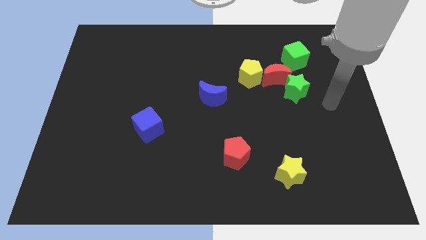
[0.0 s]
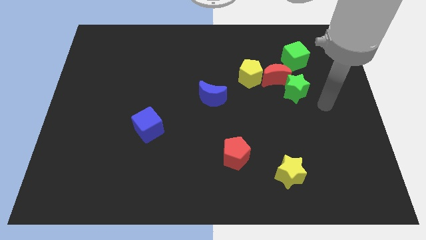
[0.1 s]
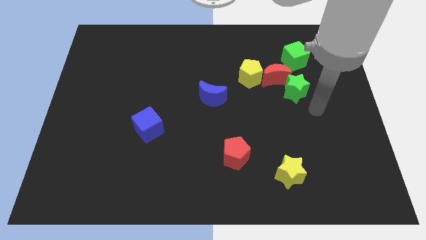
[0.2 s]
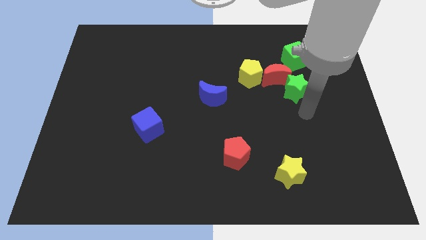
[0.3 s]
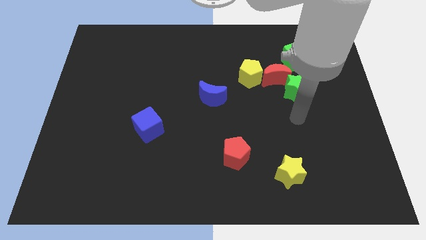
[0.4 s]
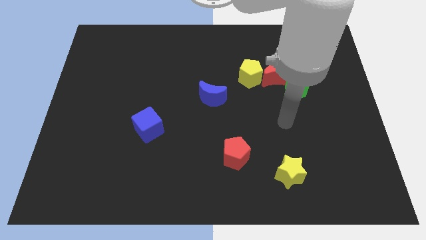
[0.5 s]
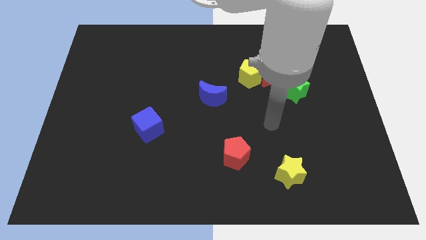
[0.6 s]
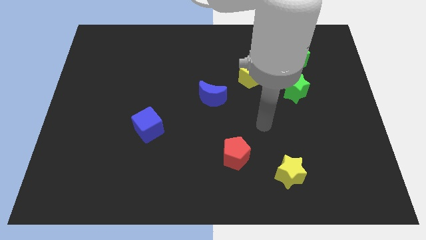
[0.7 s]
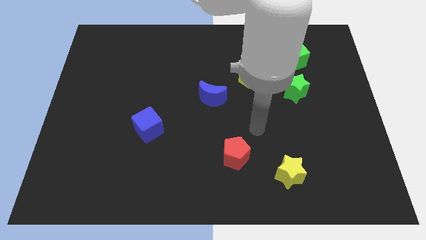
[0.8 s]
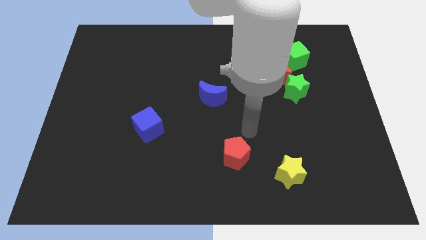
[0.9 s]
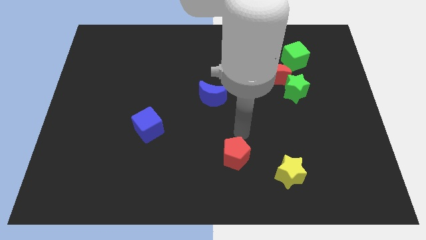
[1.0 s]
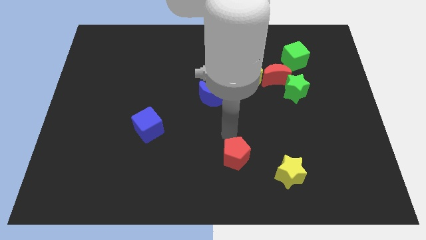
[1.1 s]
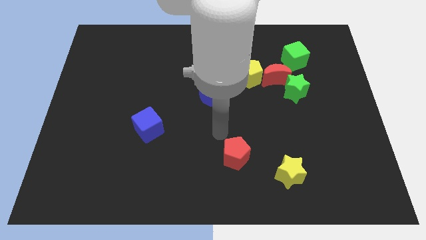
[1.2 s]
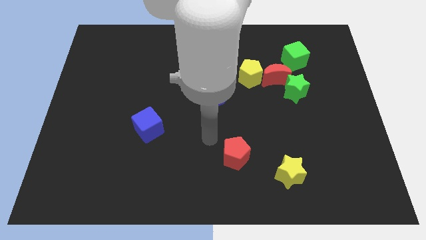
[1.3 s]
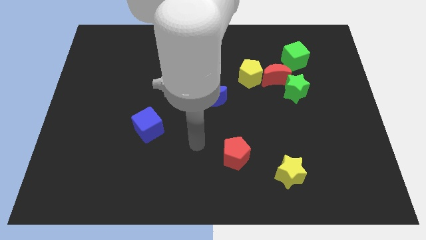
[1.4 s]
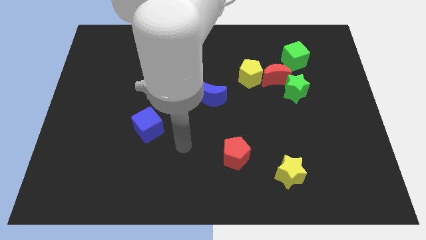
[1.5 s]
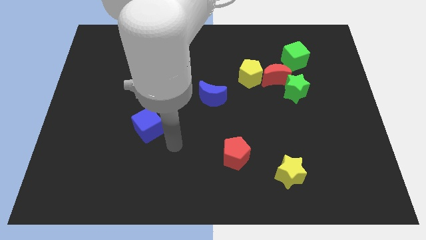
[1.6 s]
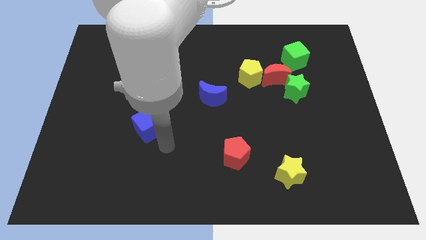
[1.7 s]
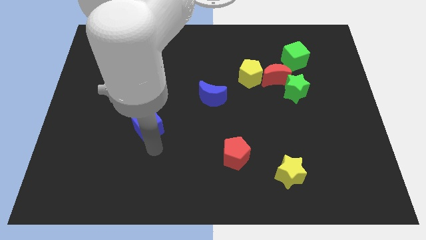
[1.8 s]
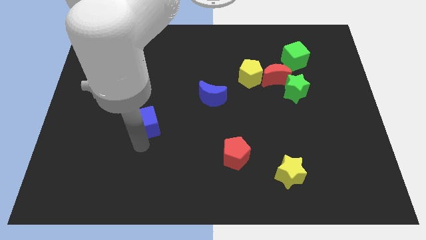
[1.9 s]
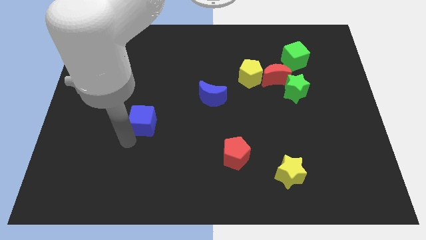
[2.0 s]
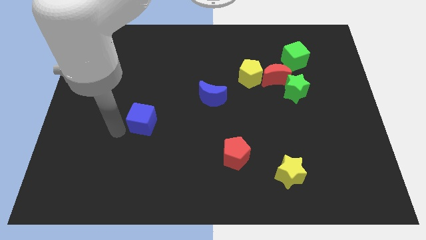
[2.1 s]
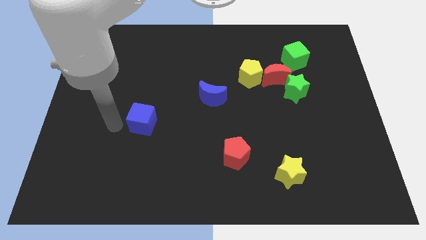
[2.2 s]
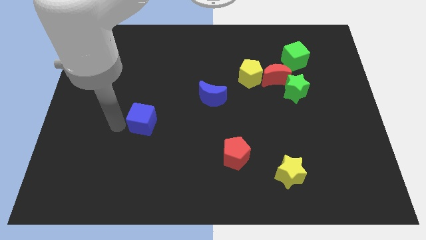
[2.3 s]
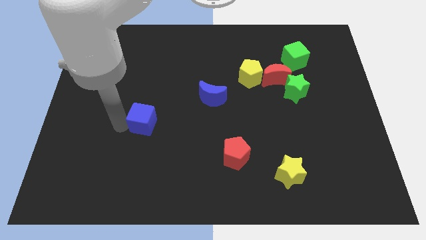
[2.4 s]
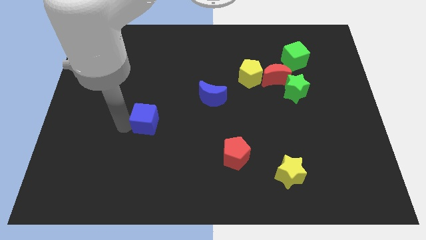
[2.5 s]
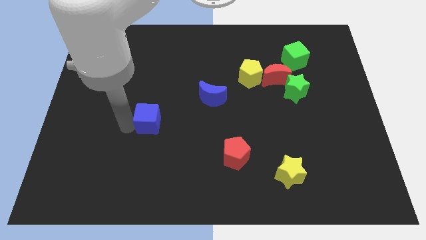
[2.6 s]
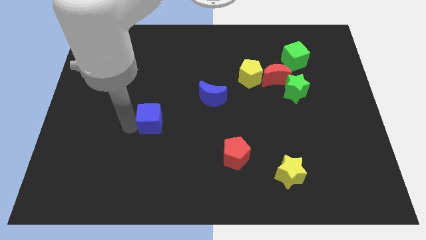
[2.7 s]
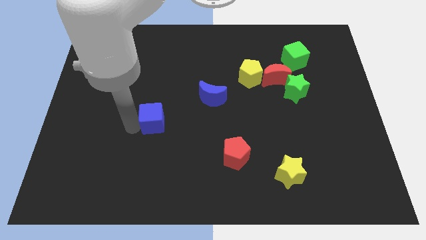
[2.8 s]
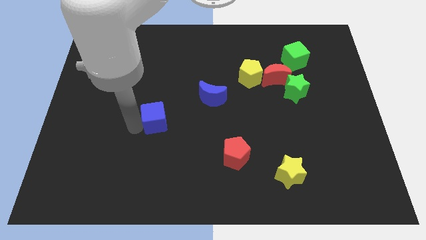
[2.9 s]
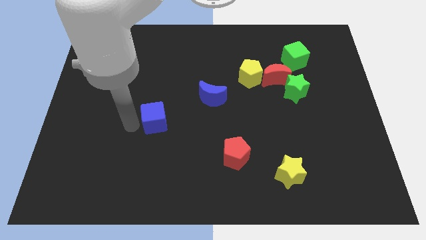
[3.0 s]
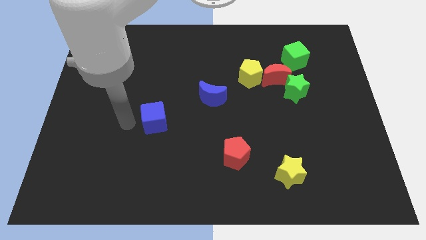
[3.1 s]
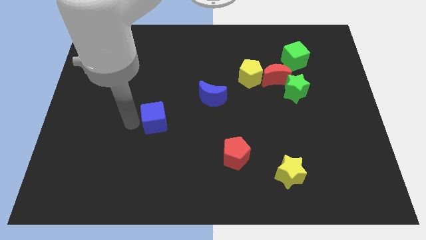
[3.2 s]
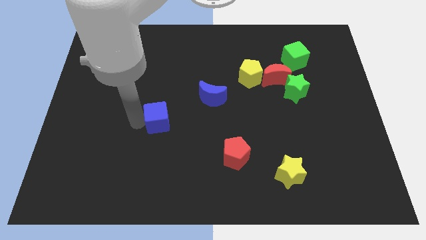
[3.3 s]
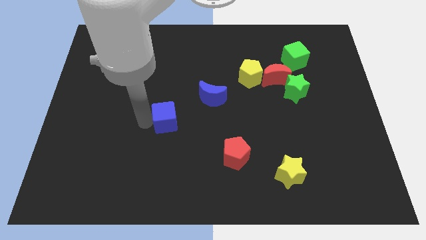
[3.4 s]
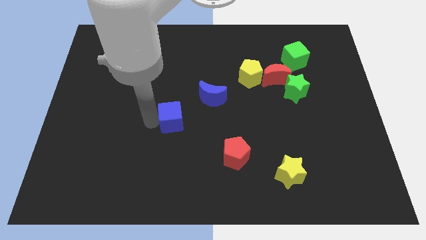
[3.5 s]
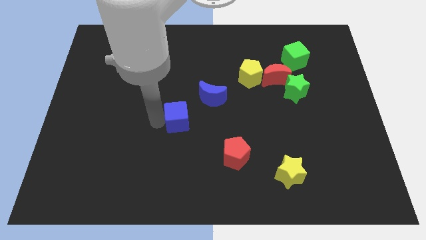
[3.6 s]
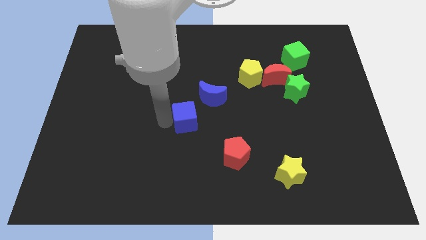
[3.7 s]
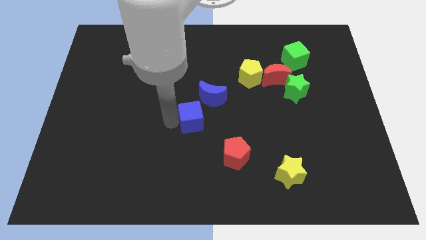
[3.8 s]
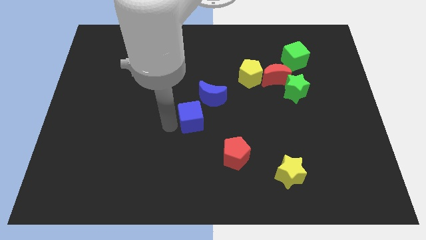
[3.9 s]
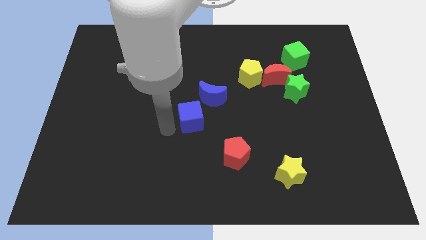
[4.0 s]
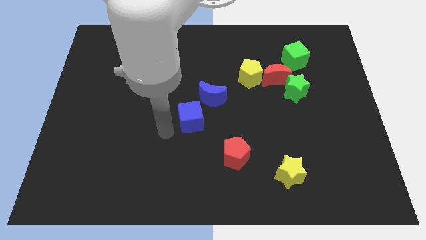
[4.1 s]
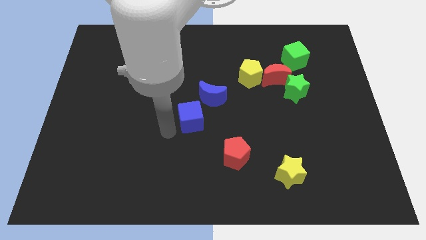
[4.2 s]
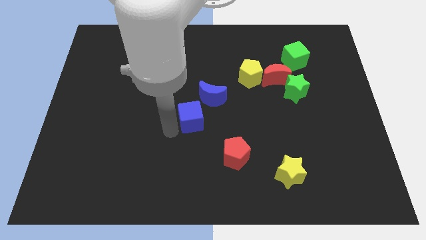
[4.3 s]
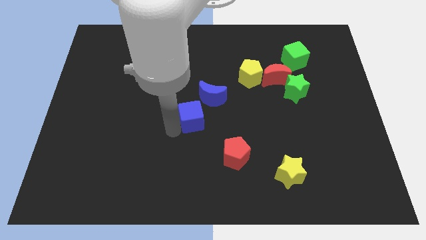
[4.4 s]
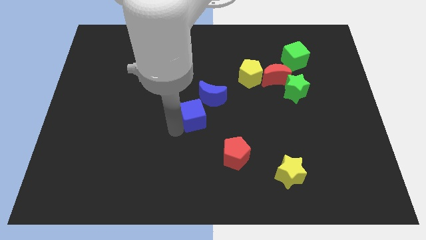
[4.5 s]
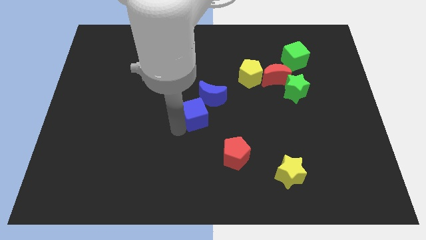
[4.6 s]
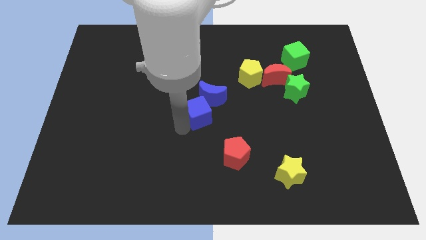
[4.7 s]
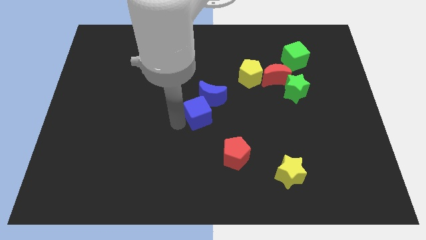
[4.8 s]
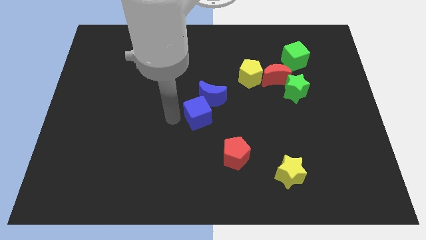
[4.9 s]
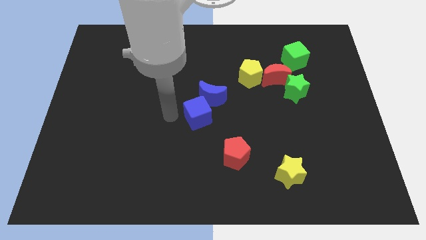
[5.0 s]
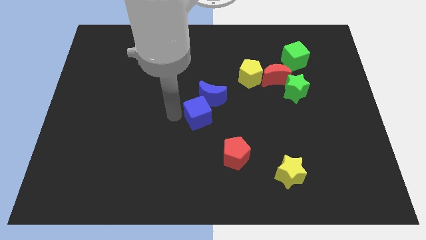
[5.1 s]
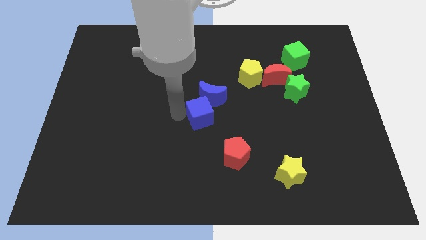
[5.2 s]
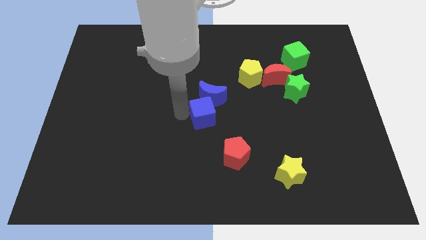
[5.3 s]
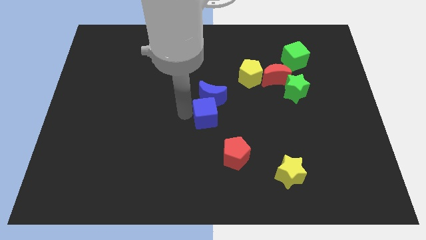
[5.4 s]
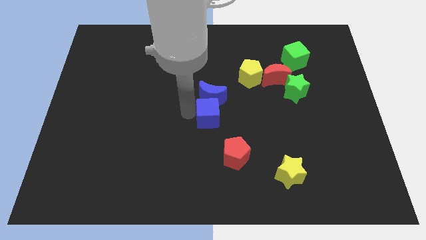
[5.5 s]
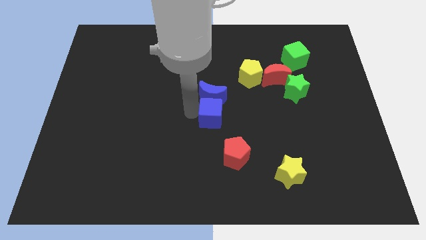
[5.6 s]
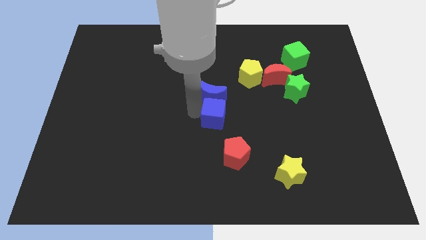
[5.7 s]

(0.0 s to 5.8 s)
move the blue cube above the red pentagon

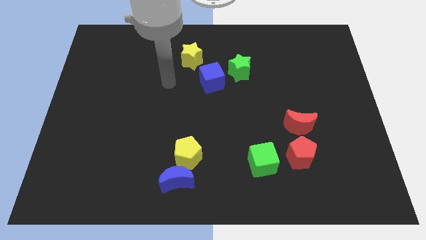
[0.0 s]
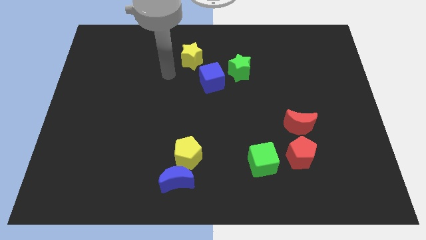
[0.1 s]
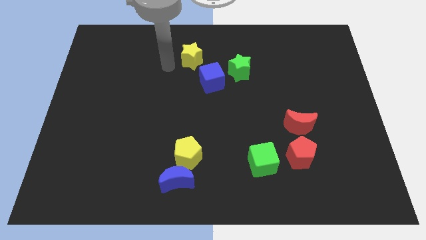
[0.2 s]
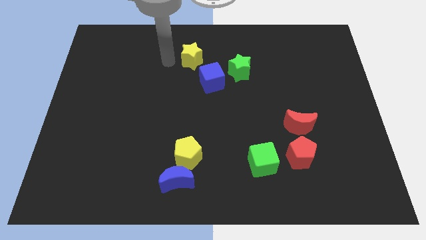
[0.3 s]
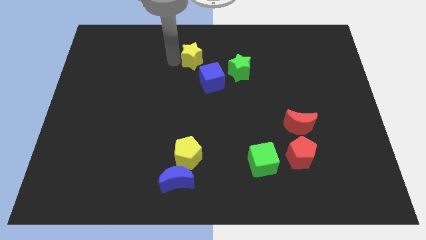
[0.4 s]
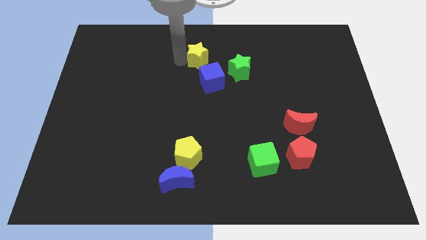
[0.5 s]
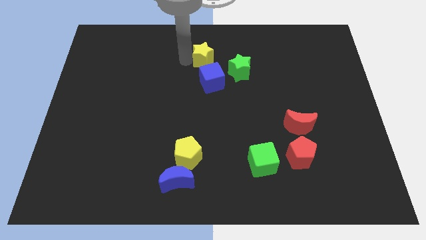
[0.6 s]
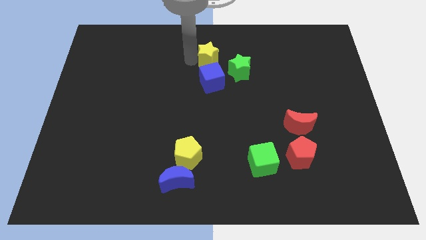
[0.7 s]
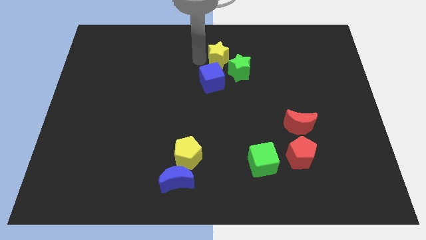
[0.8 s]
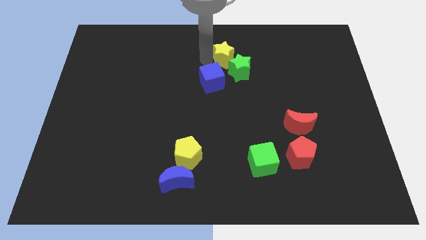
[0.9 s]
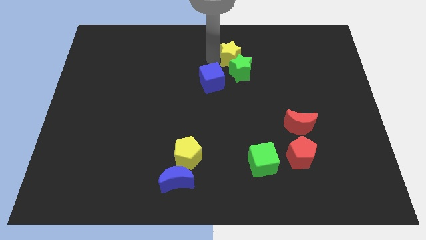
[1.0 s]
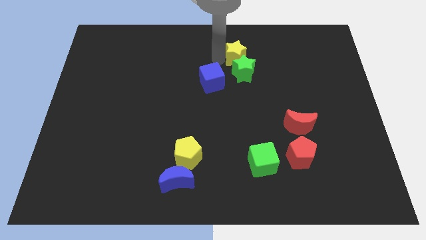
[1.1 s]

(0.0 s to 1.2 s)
put the yellow star to the top right side of the green star

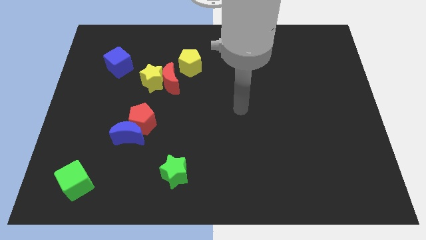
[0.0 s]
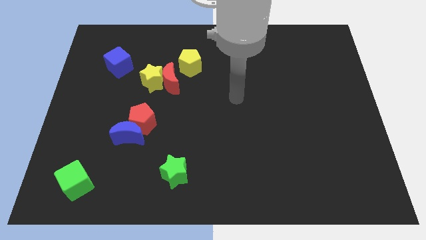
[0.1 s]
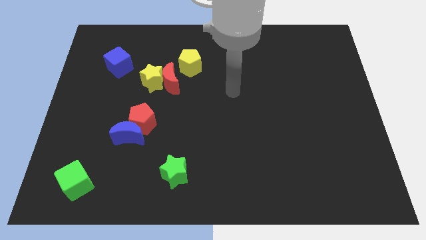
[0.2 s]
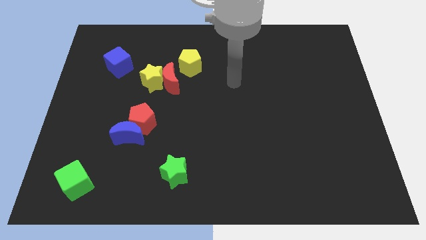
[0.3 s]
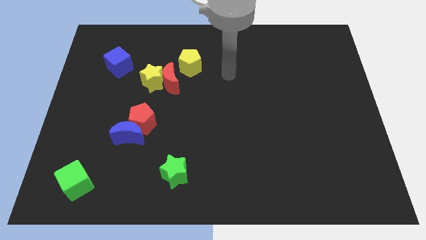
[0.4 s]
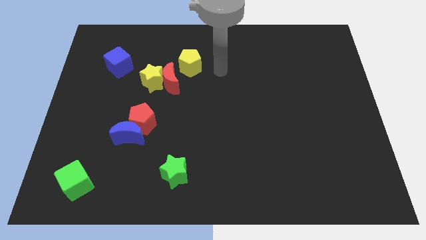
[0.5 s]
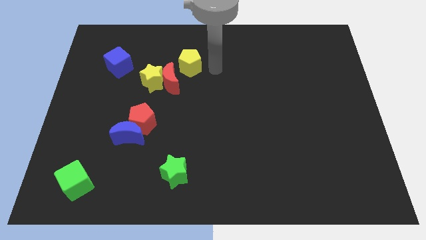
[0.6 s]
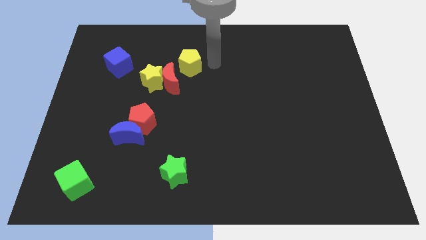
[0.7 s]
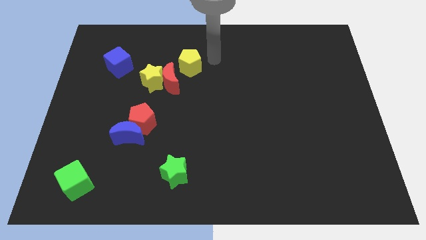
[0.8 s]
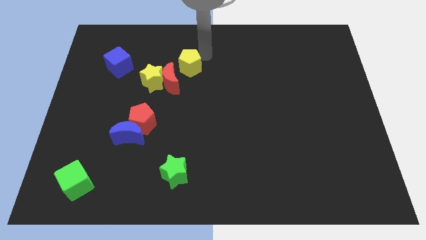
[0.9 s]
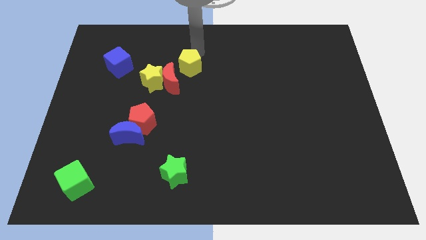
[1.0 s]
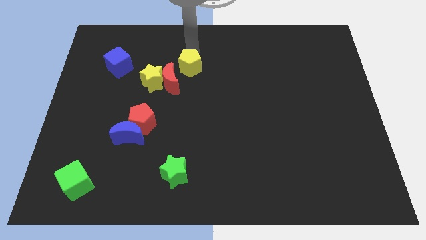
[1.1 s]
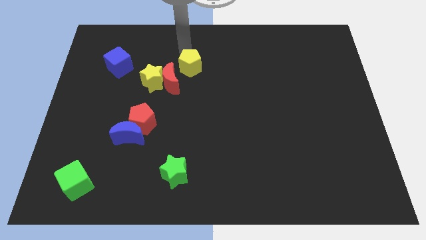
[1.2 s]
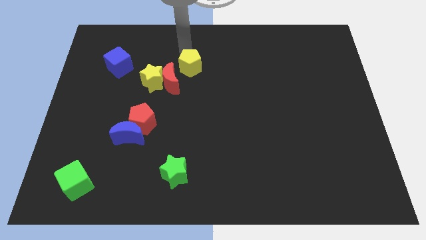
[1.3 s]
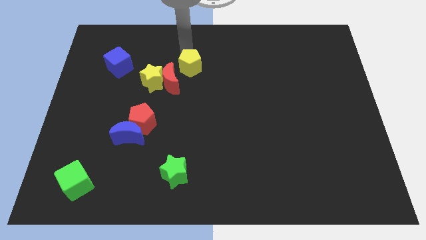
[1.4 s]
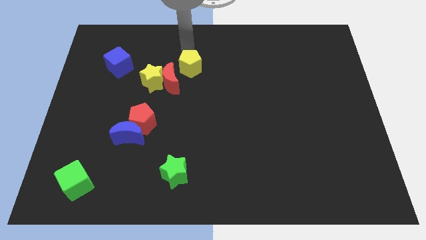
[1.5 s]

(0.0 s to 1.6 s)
push the yellow pentagon just right of the yellow star
